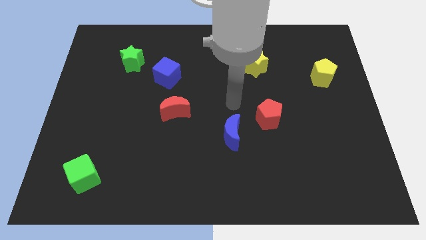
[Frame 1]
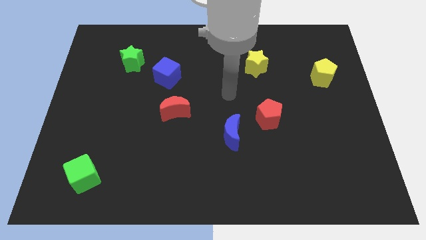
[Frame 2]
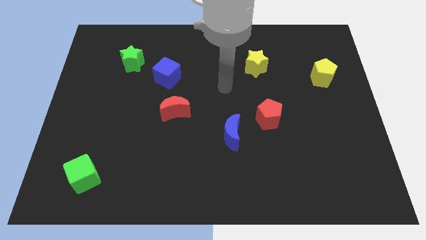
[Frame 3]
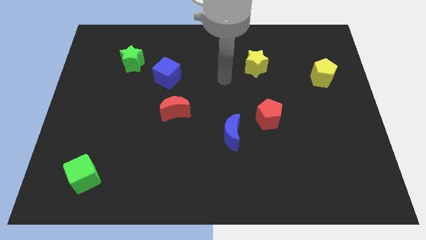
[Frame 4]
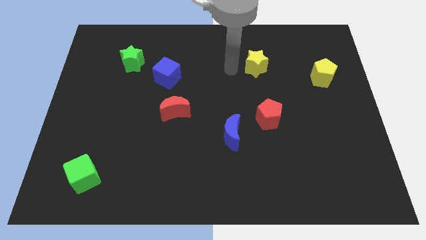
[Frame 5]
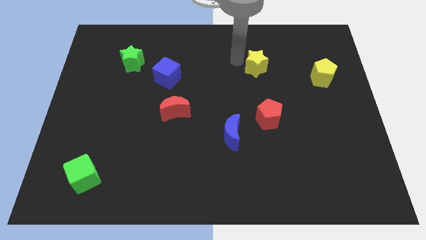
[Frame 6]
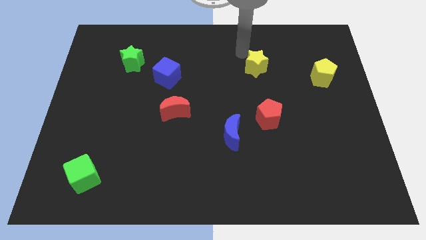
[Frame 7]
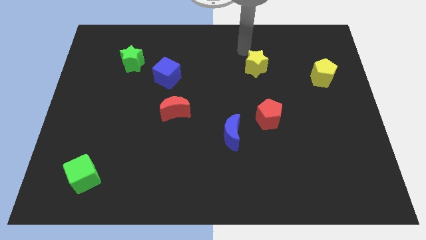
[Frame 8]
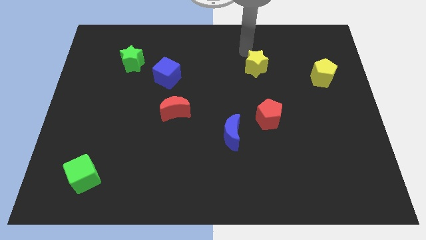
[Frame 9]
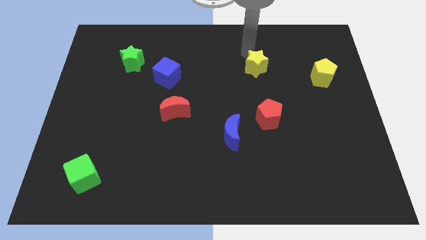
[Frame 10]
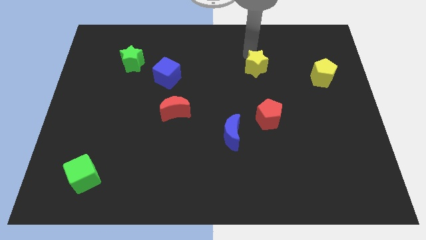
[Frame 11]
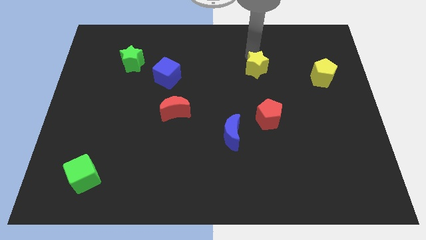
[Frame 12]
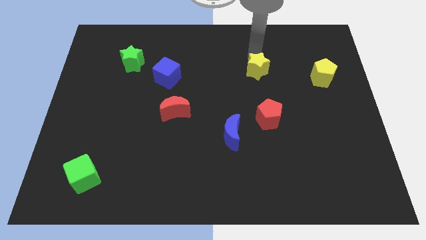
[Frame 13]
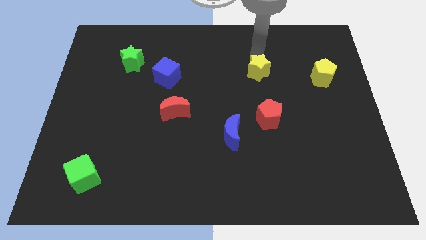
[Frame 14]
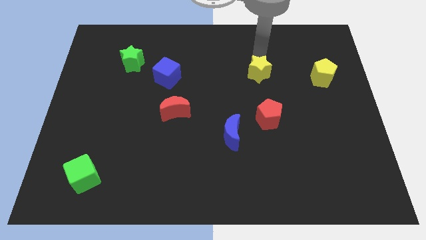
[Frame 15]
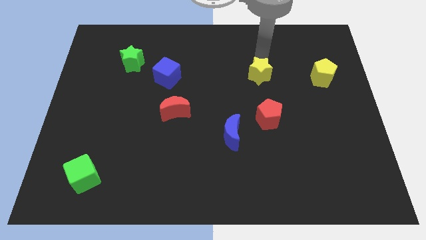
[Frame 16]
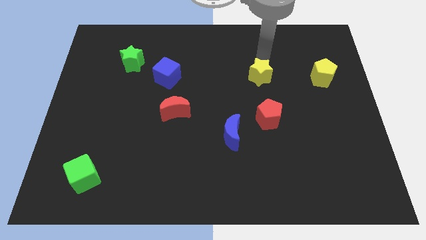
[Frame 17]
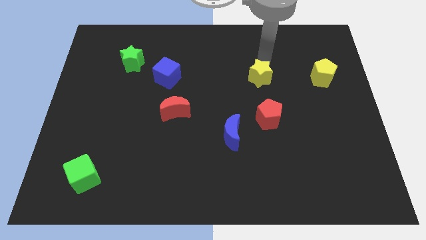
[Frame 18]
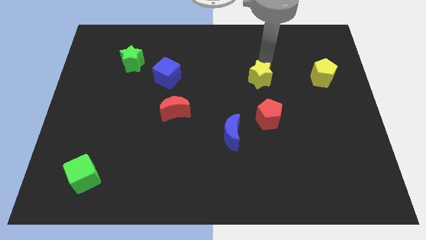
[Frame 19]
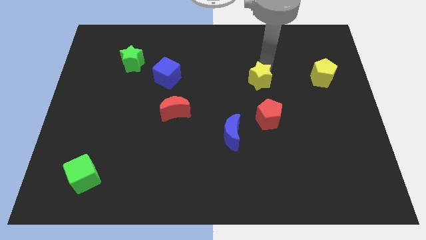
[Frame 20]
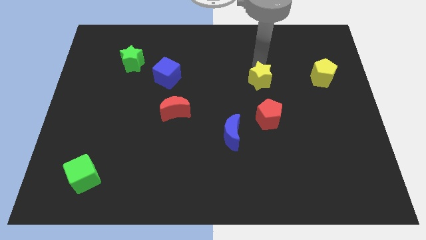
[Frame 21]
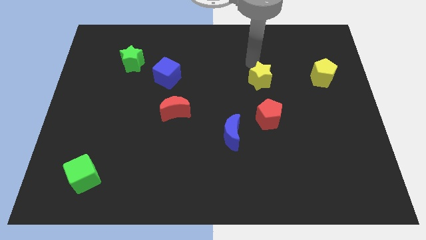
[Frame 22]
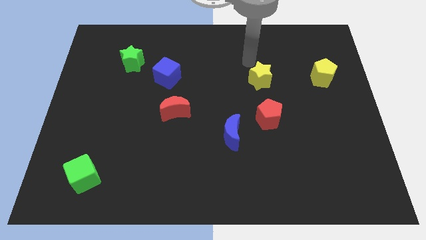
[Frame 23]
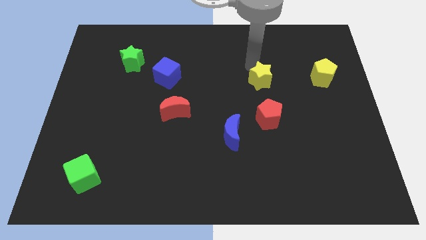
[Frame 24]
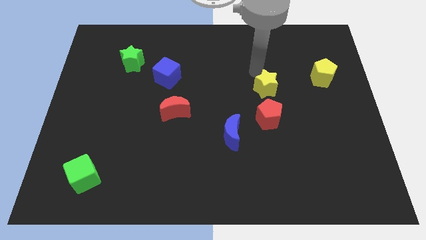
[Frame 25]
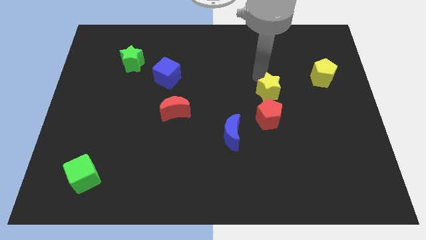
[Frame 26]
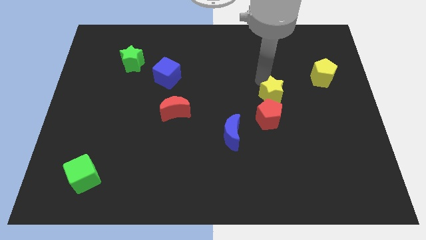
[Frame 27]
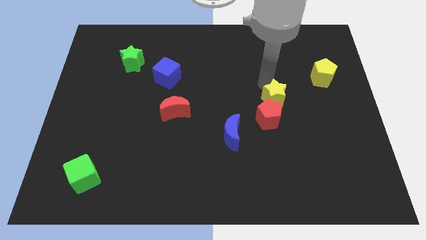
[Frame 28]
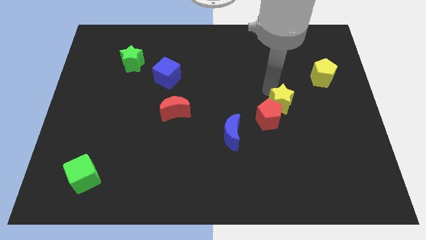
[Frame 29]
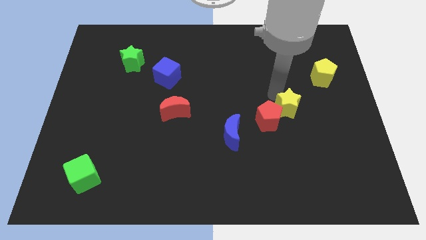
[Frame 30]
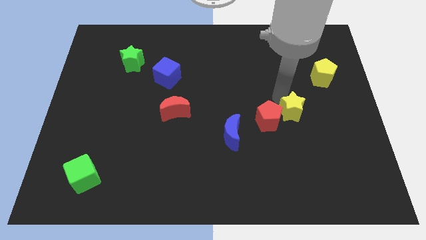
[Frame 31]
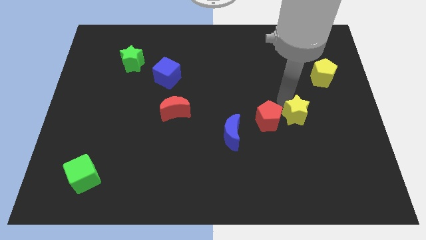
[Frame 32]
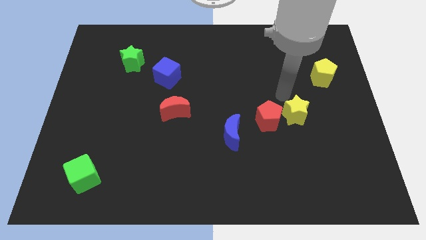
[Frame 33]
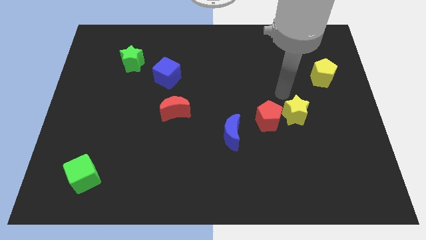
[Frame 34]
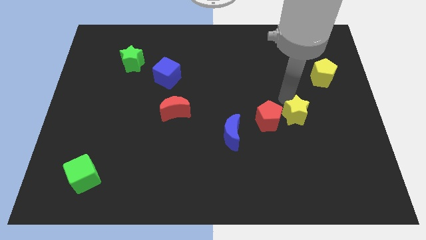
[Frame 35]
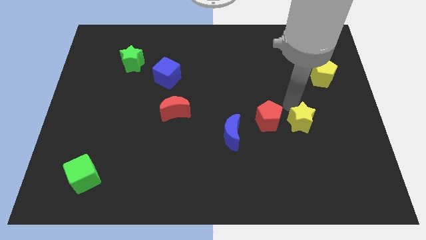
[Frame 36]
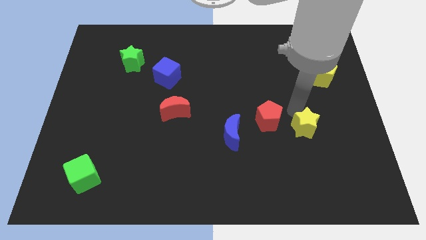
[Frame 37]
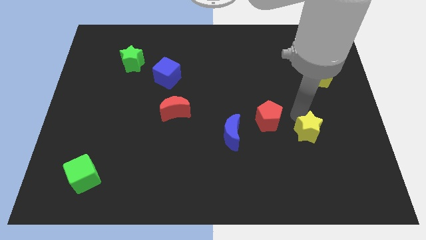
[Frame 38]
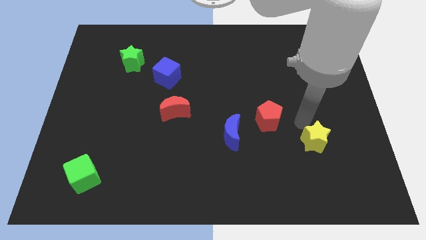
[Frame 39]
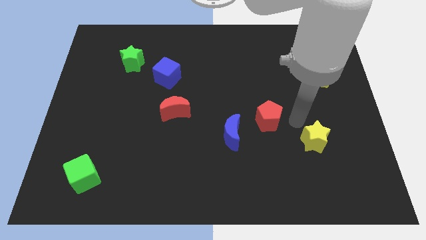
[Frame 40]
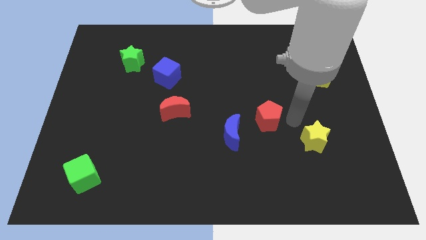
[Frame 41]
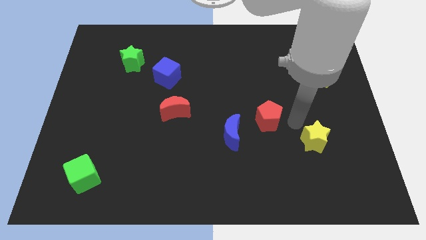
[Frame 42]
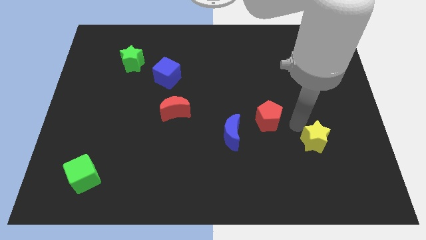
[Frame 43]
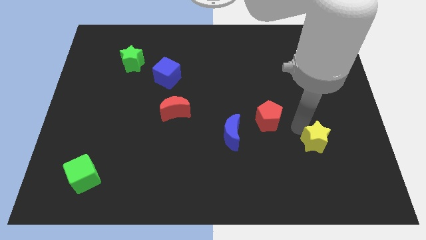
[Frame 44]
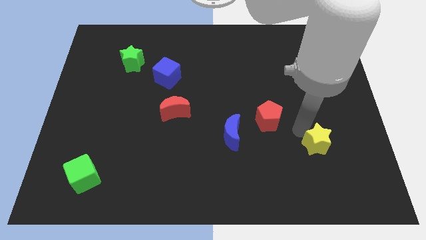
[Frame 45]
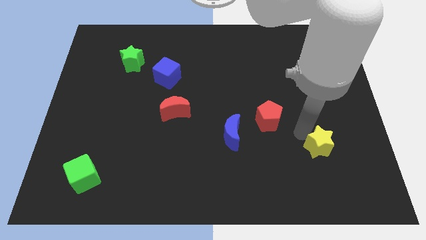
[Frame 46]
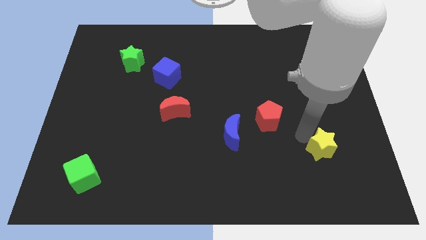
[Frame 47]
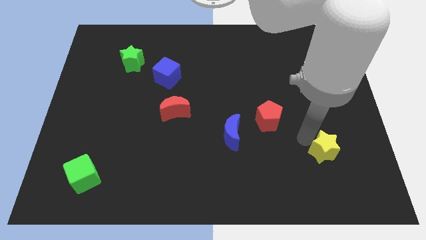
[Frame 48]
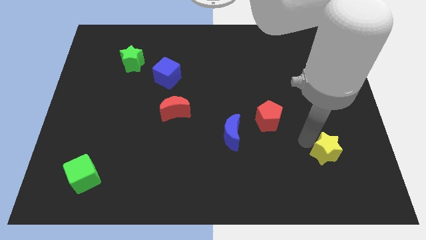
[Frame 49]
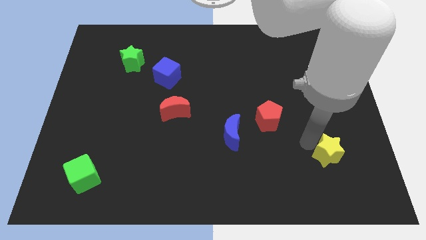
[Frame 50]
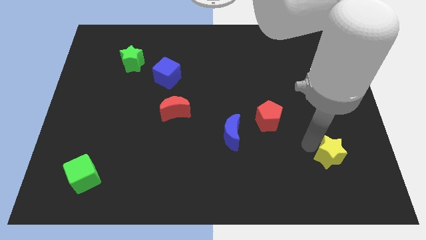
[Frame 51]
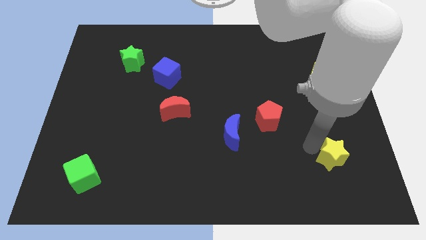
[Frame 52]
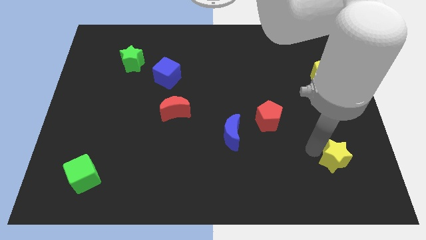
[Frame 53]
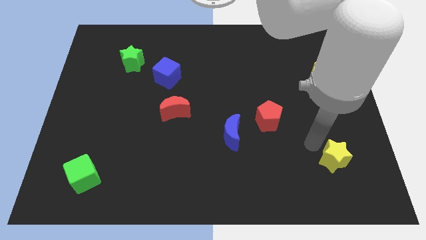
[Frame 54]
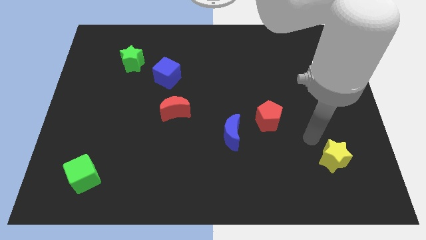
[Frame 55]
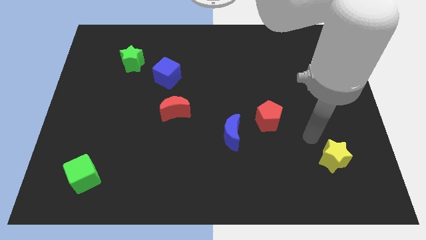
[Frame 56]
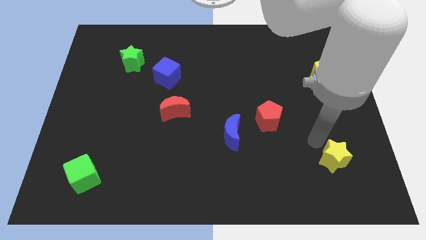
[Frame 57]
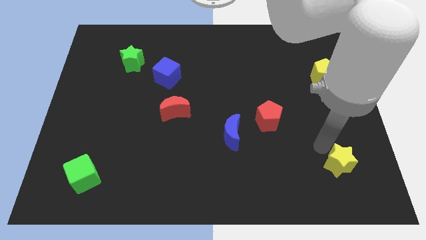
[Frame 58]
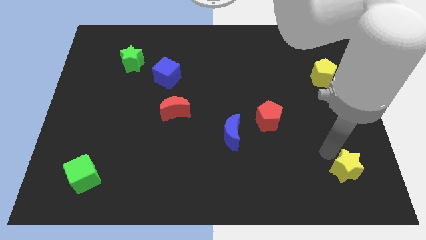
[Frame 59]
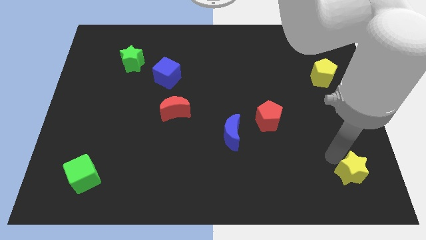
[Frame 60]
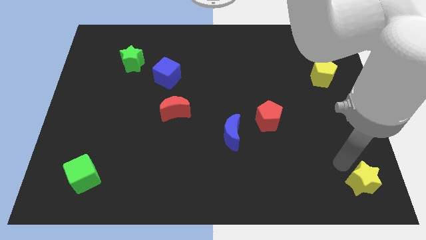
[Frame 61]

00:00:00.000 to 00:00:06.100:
move the yellow star to the bottom right of the board

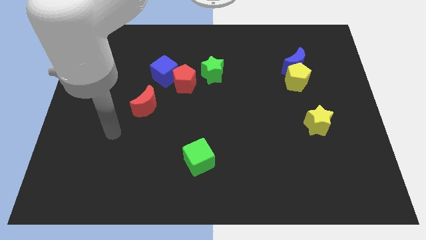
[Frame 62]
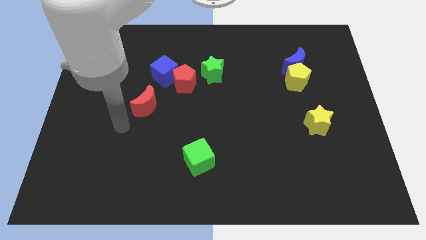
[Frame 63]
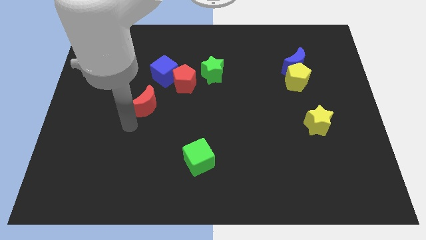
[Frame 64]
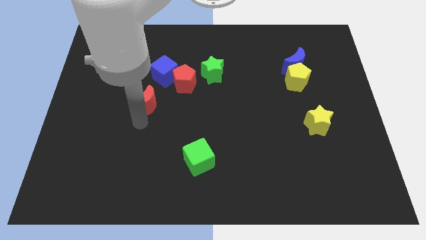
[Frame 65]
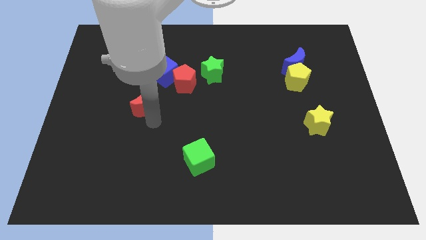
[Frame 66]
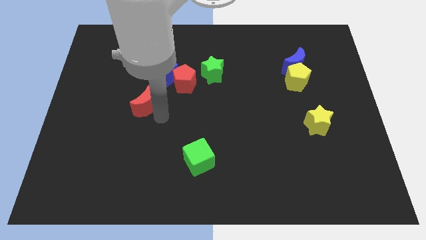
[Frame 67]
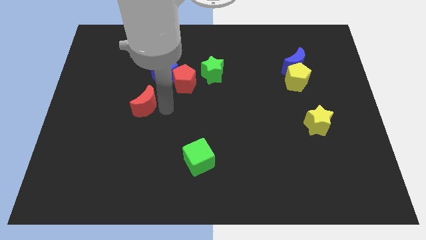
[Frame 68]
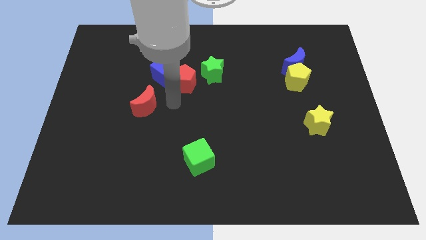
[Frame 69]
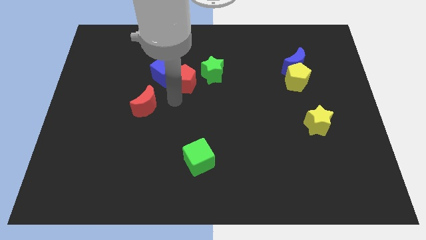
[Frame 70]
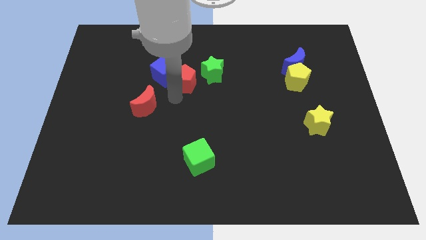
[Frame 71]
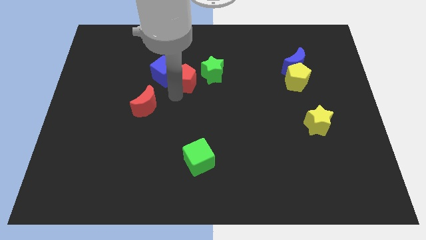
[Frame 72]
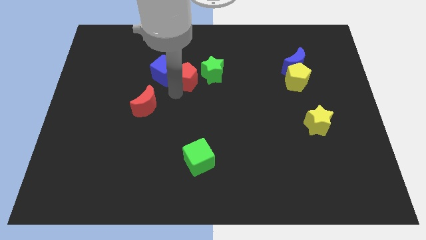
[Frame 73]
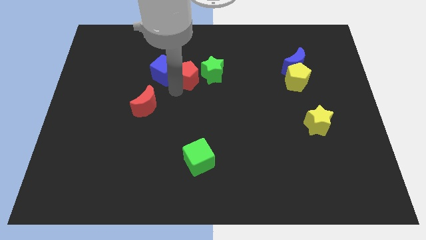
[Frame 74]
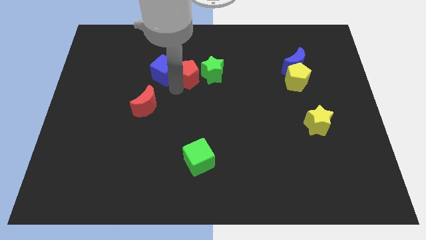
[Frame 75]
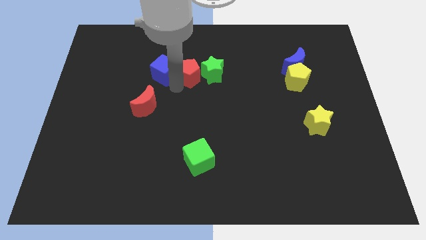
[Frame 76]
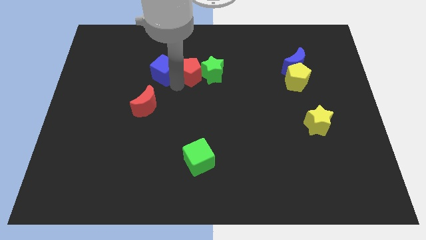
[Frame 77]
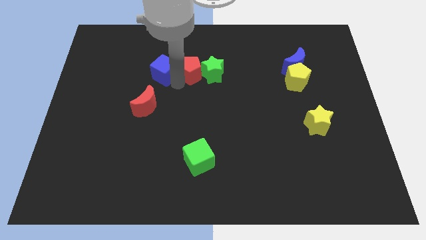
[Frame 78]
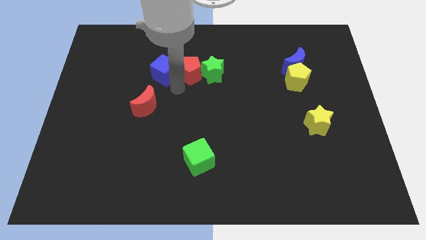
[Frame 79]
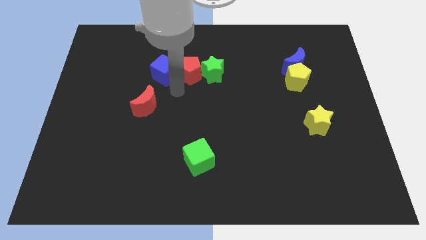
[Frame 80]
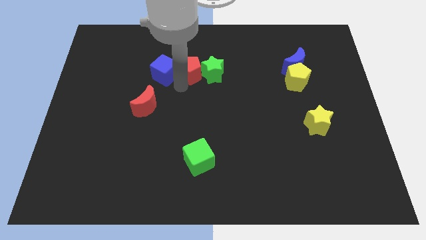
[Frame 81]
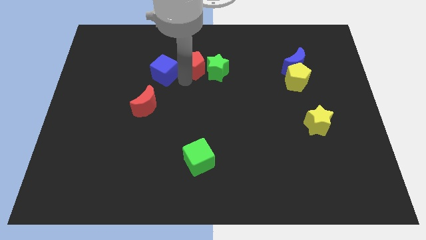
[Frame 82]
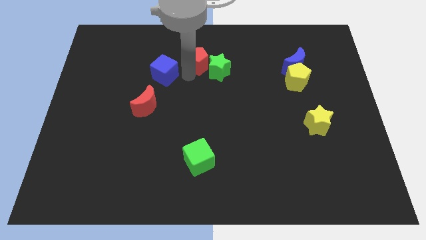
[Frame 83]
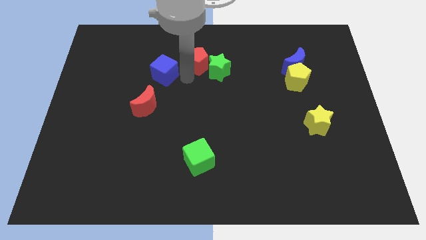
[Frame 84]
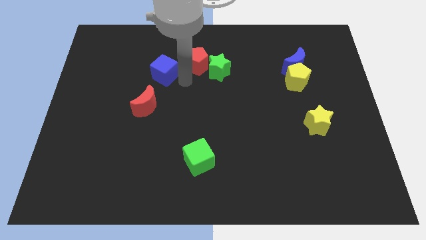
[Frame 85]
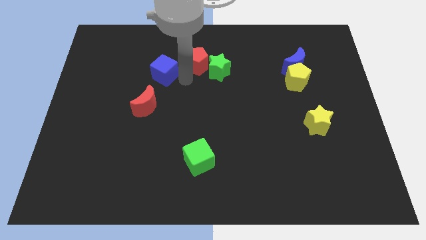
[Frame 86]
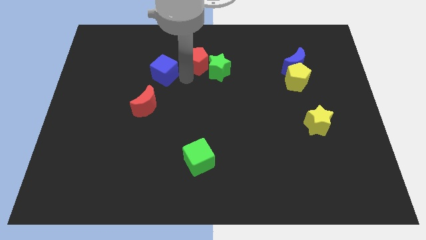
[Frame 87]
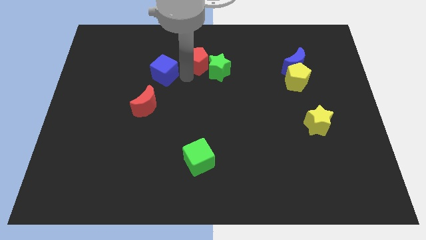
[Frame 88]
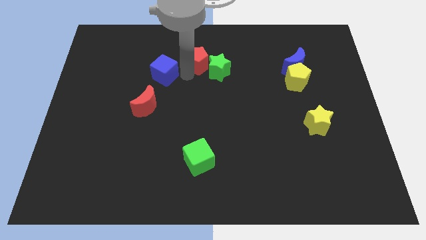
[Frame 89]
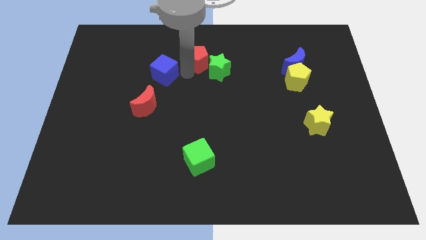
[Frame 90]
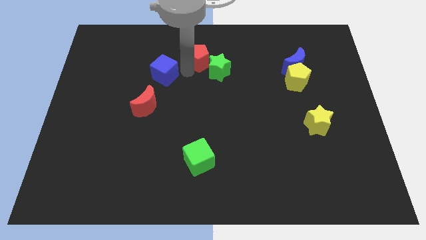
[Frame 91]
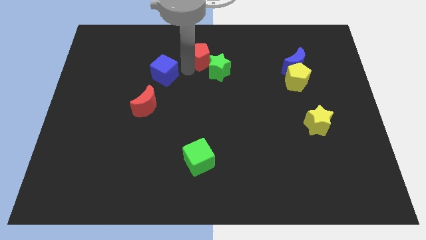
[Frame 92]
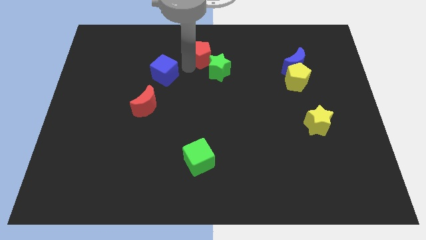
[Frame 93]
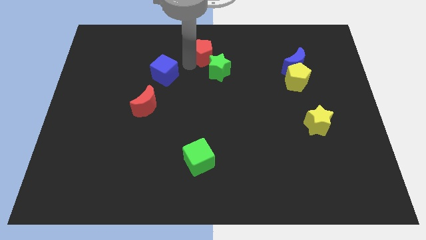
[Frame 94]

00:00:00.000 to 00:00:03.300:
put the red pentagon to the top side
